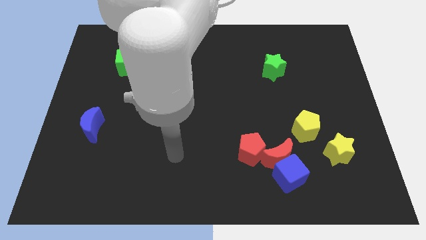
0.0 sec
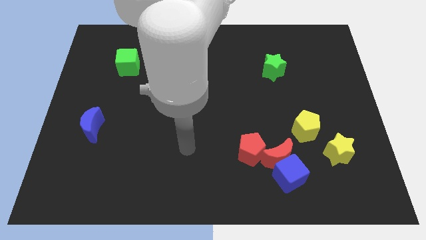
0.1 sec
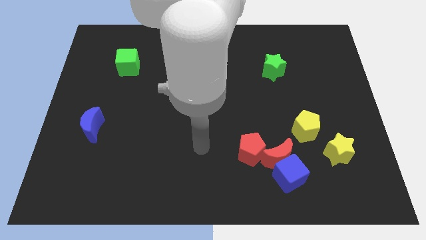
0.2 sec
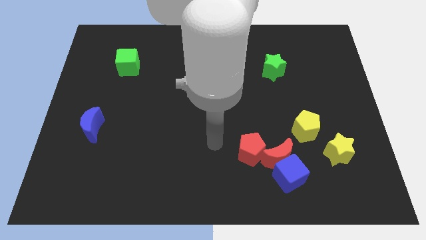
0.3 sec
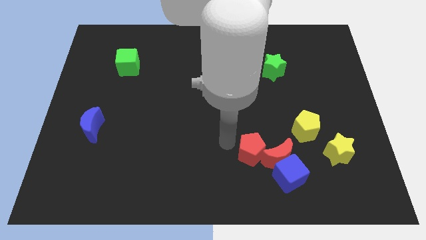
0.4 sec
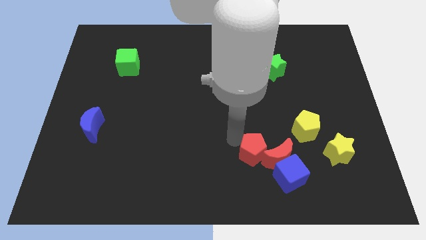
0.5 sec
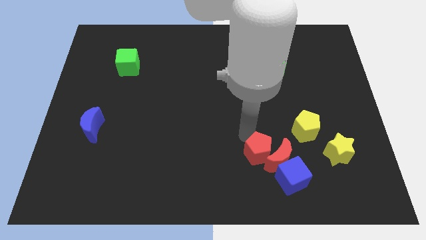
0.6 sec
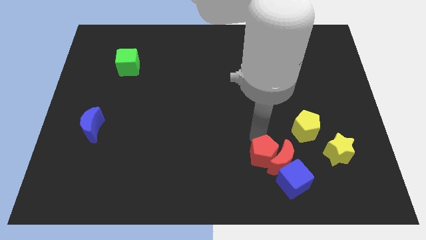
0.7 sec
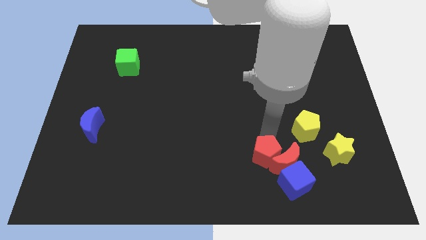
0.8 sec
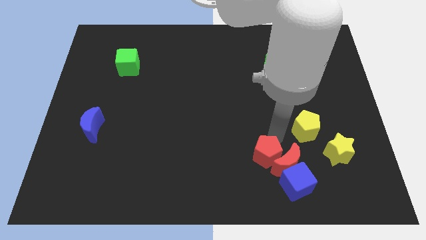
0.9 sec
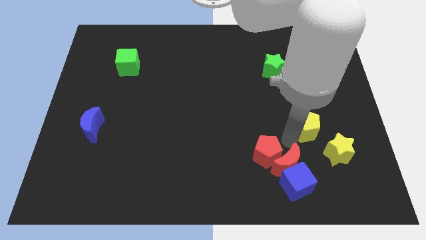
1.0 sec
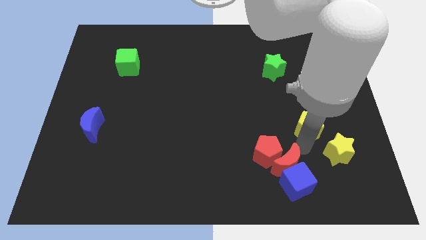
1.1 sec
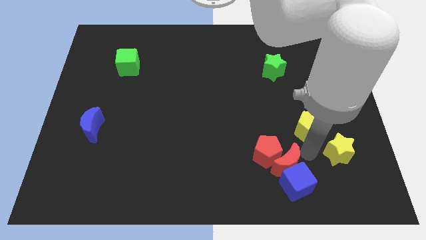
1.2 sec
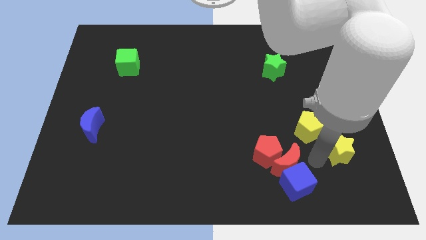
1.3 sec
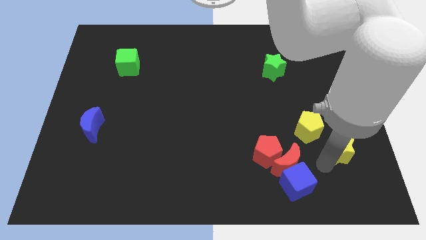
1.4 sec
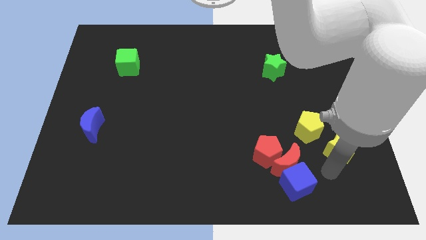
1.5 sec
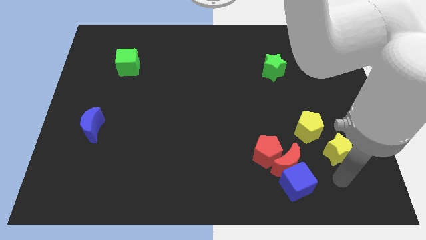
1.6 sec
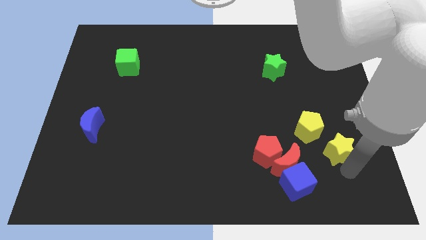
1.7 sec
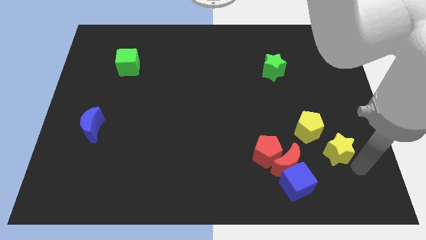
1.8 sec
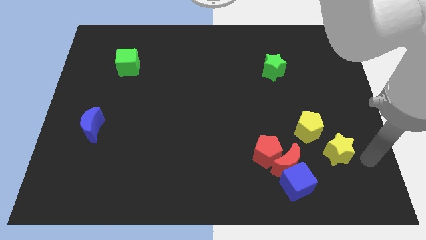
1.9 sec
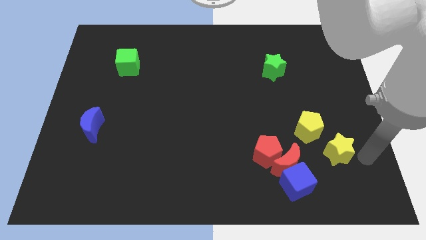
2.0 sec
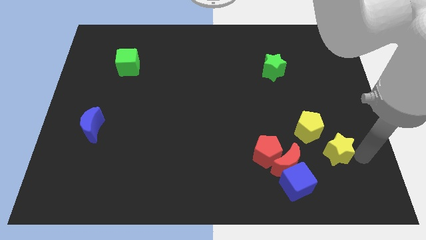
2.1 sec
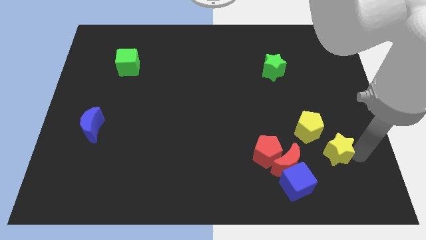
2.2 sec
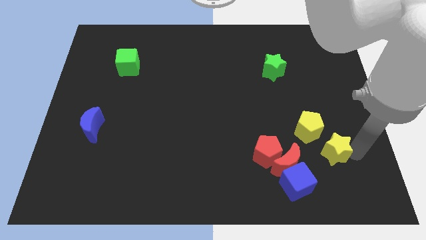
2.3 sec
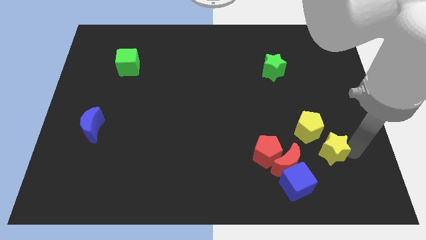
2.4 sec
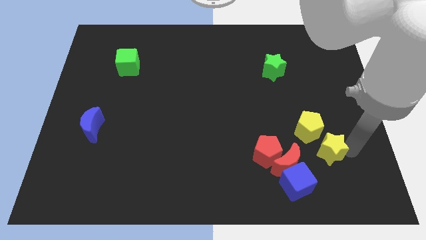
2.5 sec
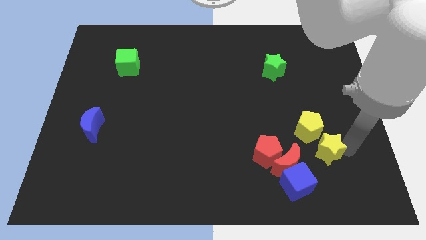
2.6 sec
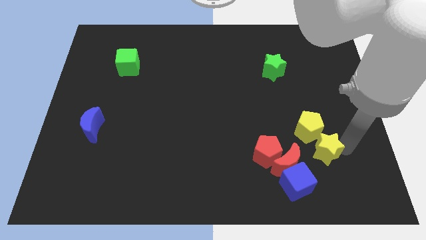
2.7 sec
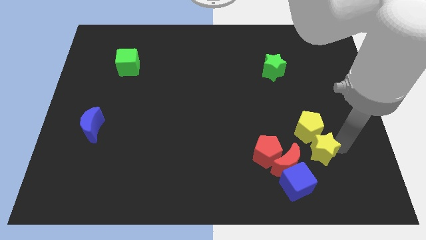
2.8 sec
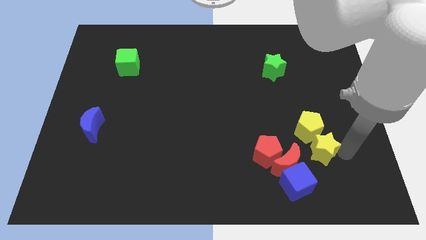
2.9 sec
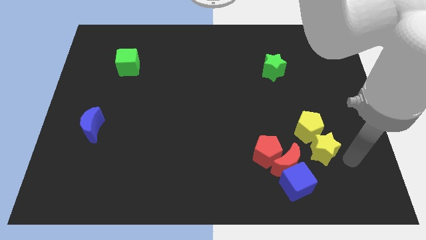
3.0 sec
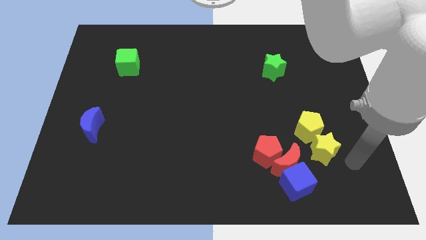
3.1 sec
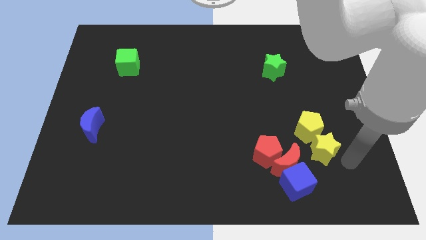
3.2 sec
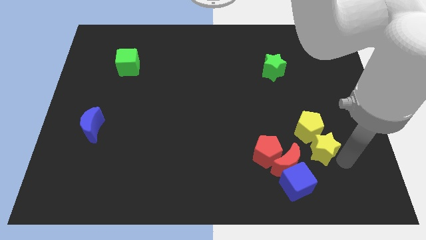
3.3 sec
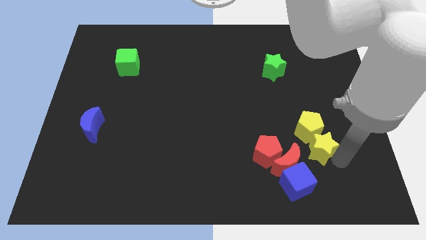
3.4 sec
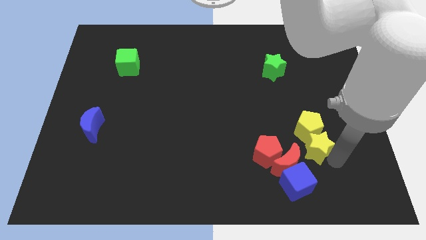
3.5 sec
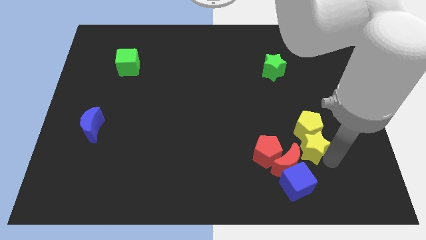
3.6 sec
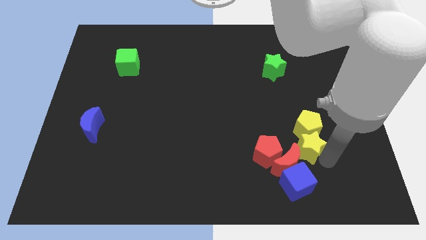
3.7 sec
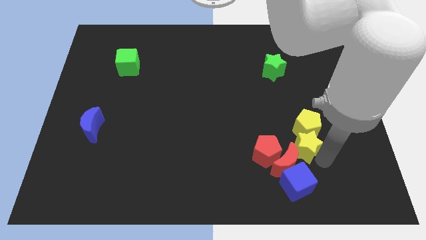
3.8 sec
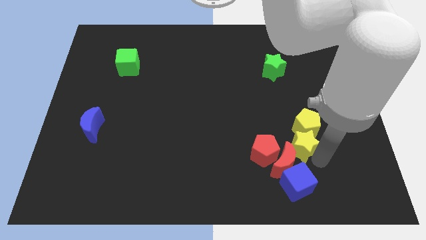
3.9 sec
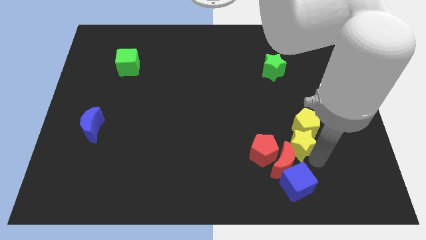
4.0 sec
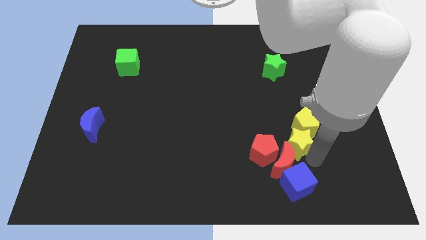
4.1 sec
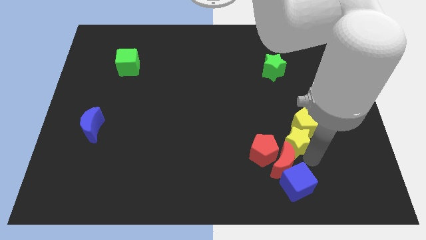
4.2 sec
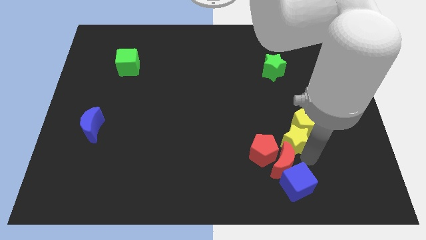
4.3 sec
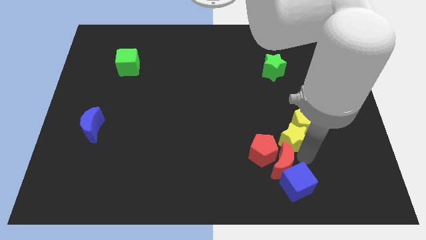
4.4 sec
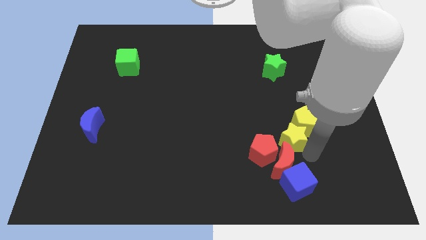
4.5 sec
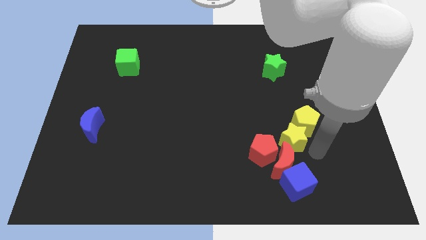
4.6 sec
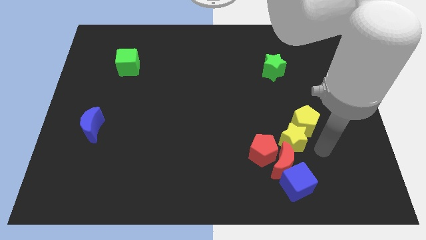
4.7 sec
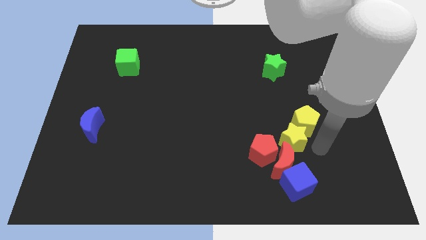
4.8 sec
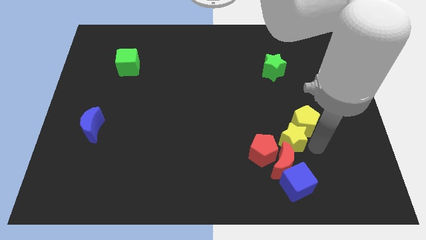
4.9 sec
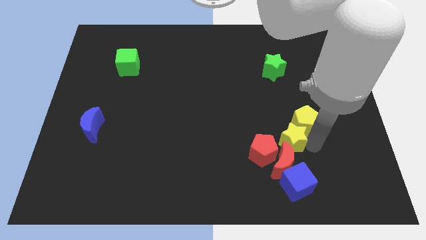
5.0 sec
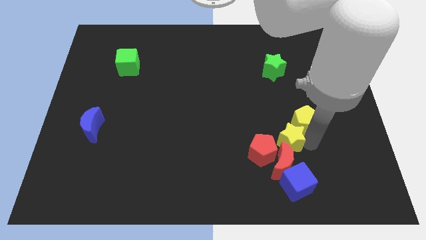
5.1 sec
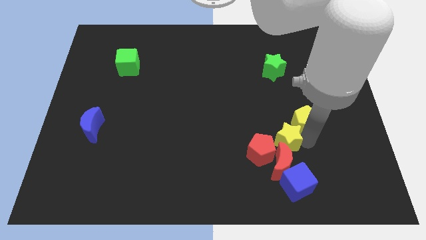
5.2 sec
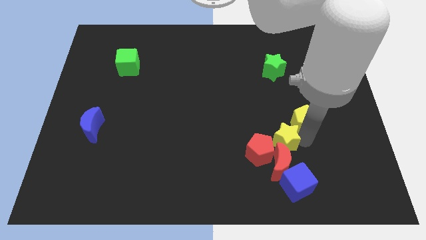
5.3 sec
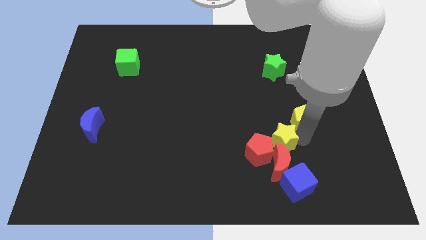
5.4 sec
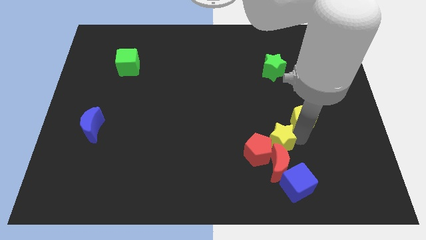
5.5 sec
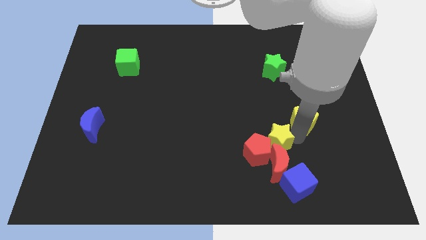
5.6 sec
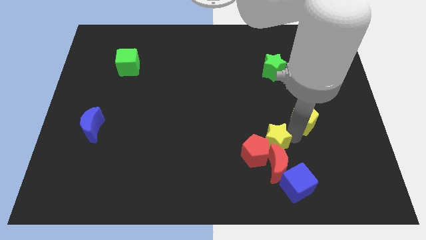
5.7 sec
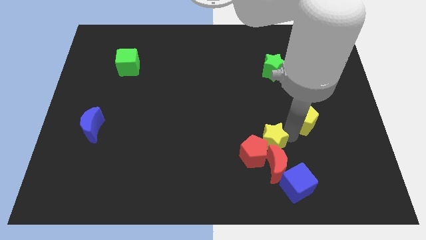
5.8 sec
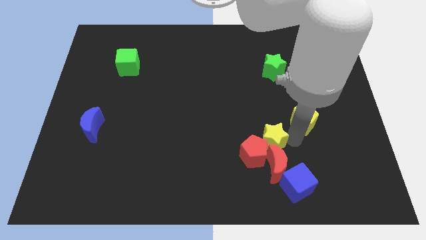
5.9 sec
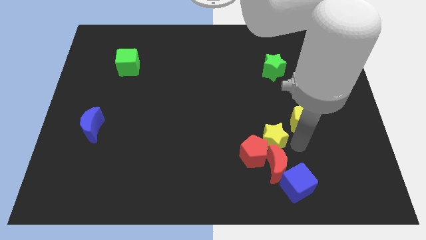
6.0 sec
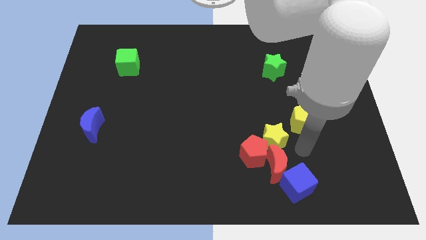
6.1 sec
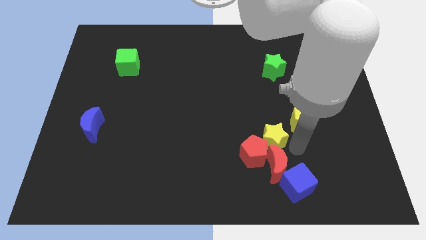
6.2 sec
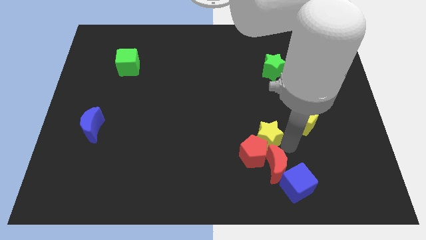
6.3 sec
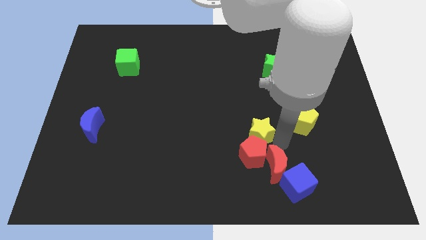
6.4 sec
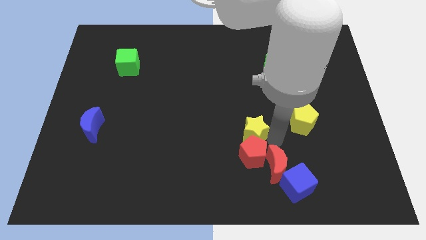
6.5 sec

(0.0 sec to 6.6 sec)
move the yellow star to the top left side of the red pentagon

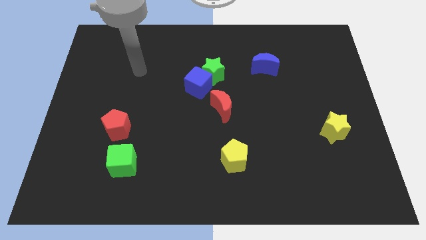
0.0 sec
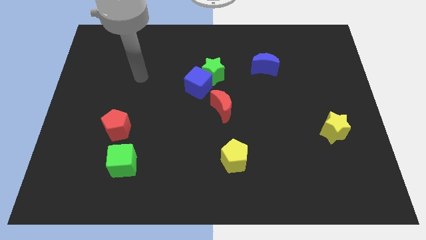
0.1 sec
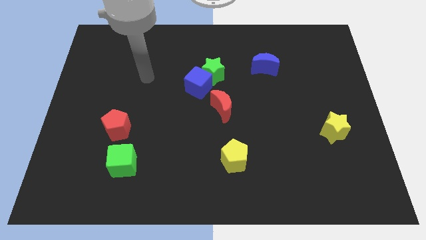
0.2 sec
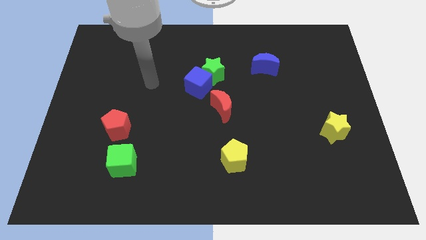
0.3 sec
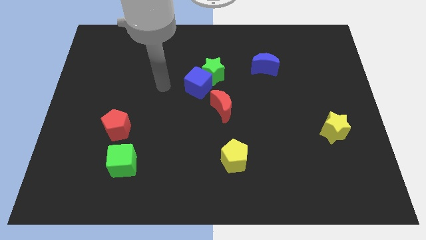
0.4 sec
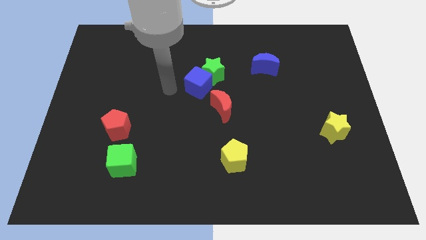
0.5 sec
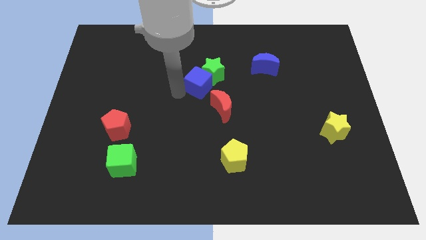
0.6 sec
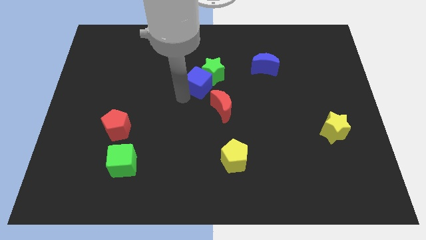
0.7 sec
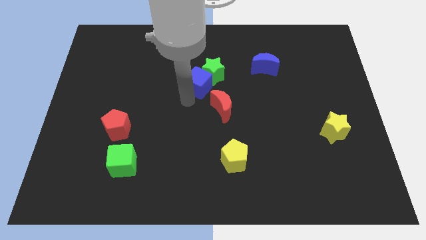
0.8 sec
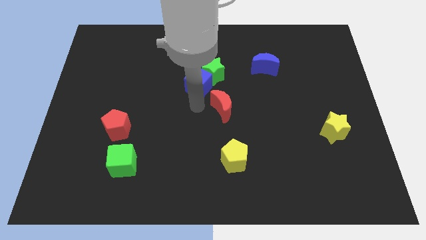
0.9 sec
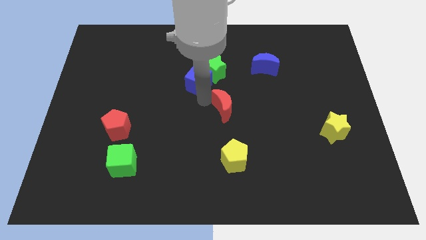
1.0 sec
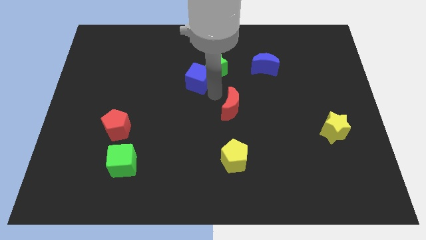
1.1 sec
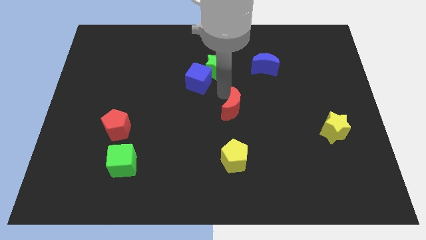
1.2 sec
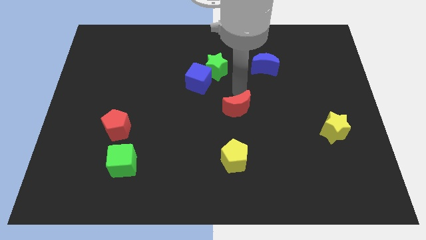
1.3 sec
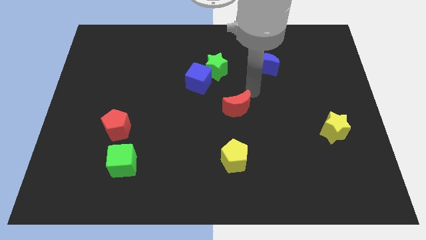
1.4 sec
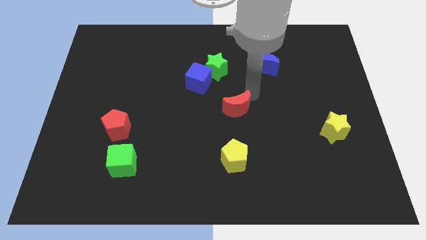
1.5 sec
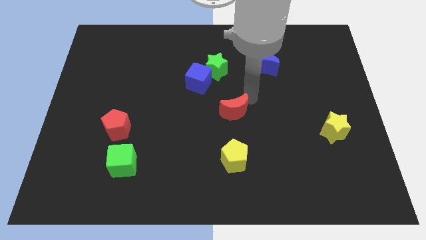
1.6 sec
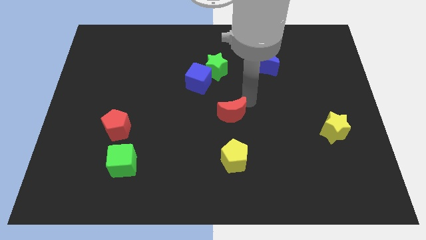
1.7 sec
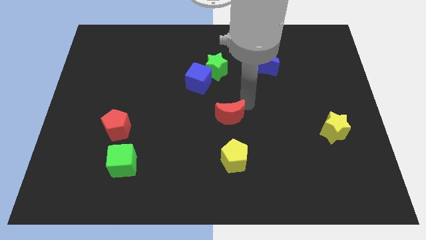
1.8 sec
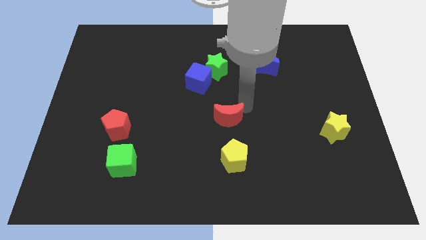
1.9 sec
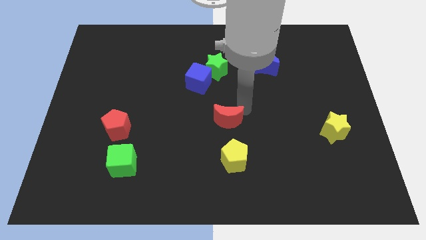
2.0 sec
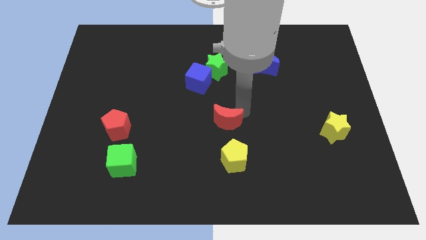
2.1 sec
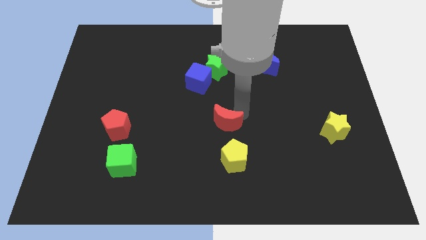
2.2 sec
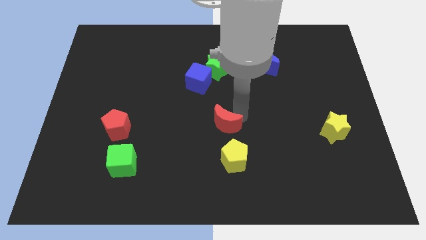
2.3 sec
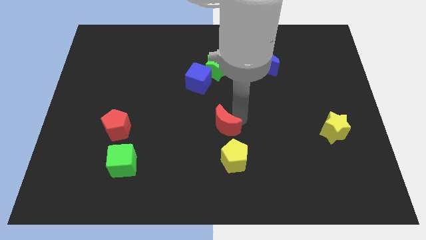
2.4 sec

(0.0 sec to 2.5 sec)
push the red moon to the top left of the yellow pentagon
